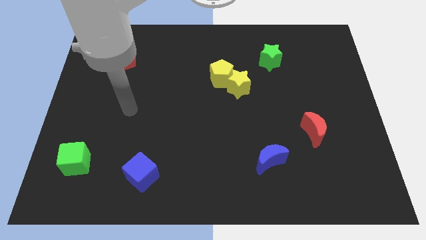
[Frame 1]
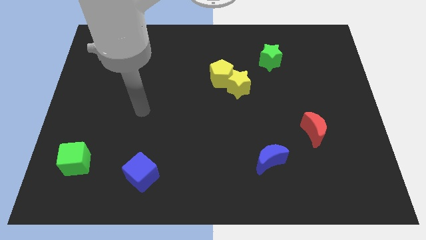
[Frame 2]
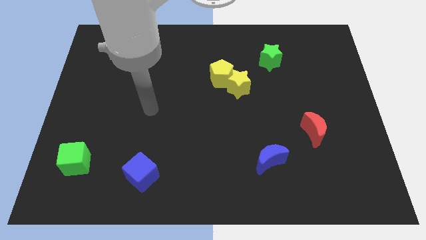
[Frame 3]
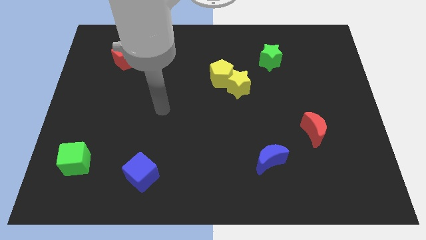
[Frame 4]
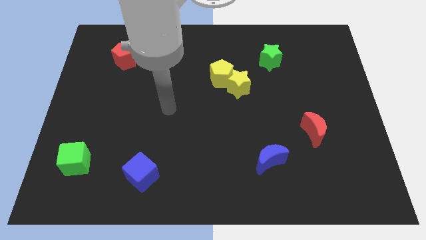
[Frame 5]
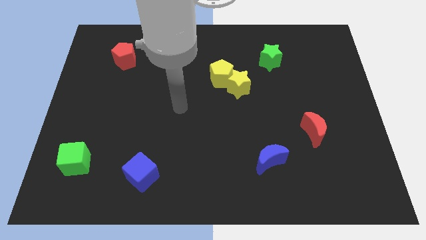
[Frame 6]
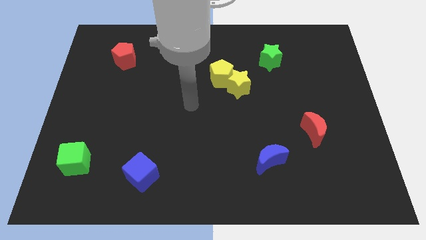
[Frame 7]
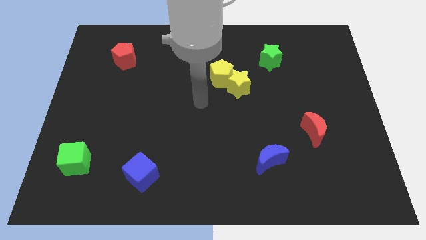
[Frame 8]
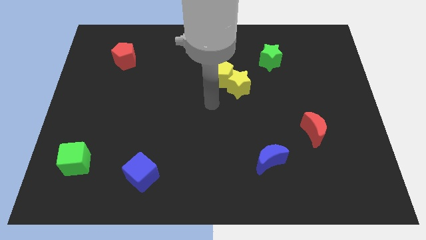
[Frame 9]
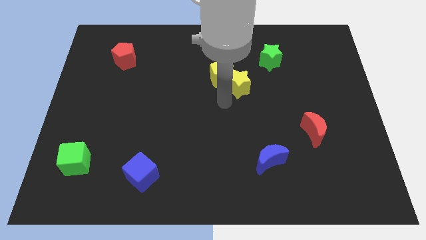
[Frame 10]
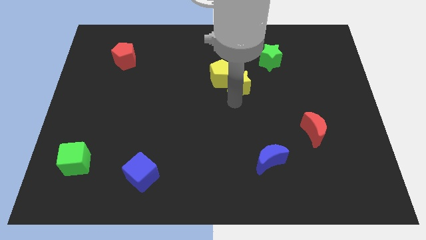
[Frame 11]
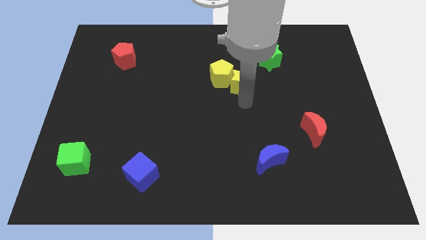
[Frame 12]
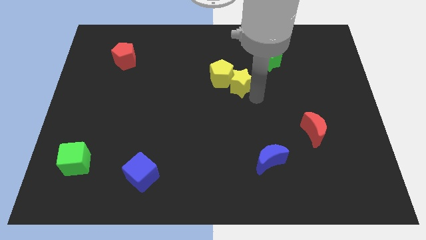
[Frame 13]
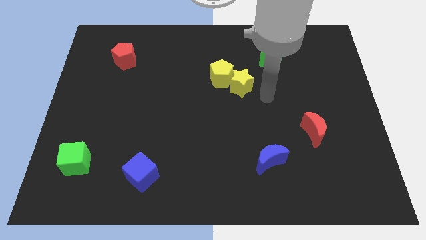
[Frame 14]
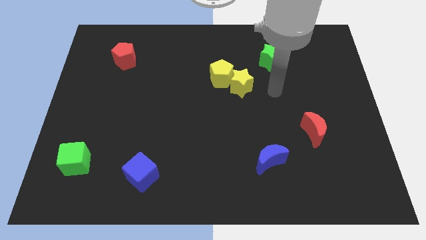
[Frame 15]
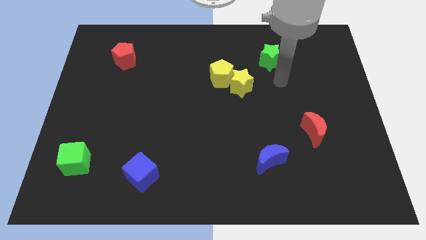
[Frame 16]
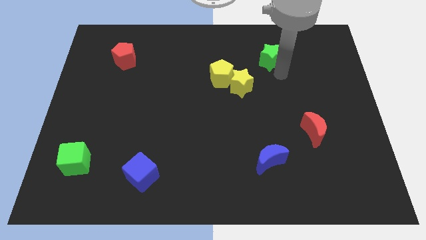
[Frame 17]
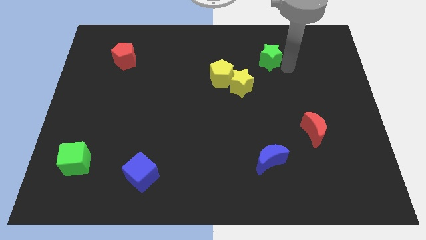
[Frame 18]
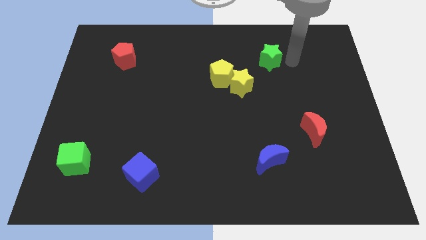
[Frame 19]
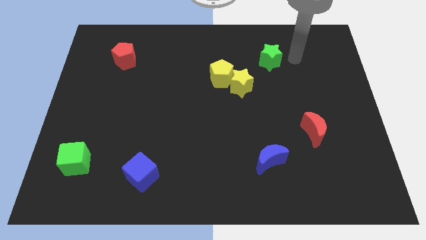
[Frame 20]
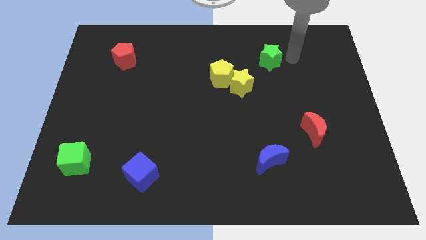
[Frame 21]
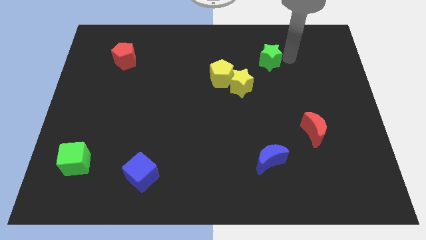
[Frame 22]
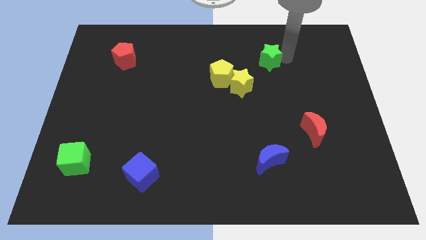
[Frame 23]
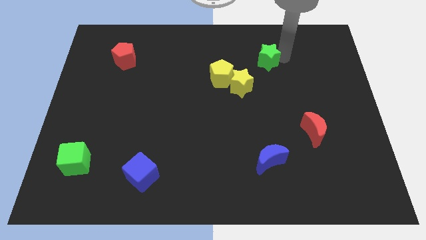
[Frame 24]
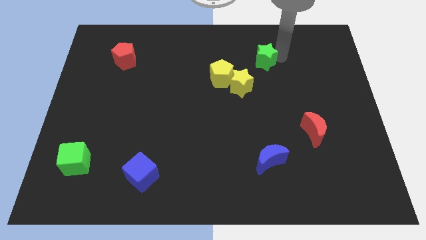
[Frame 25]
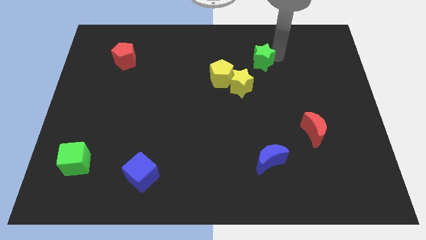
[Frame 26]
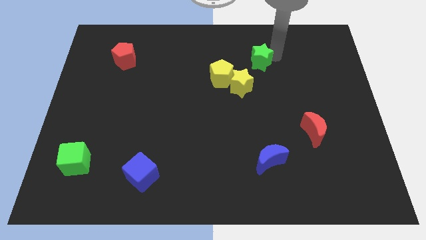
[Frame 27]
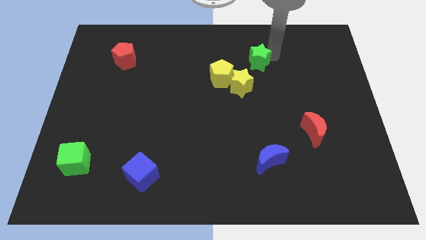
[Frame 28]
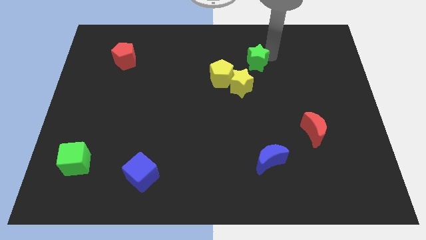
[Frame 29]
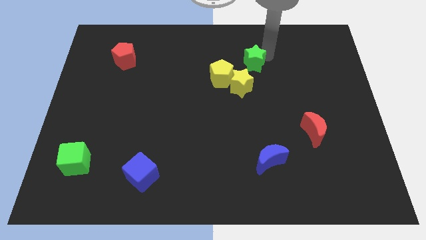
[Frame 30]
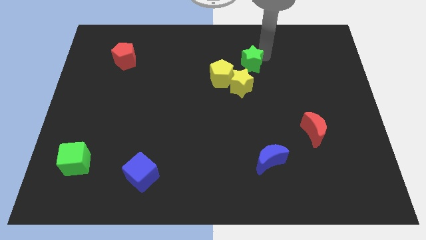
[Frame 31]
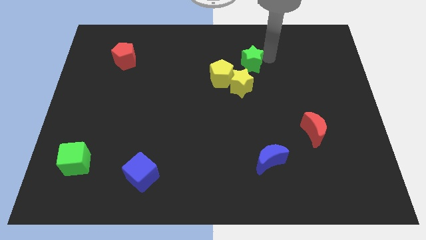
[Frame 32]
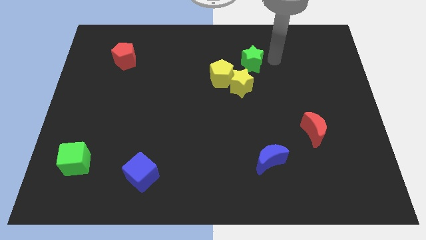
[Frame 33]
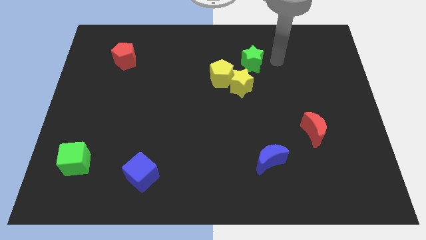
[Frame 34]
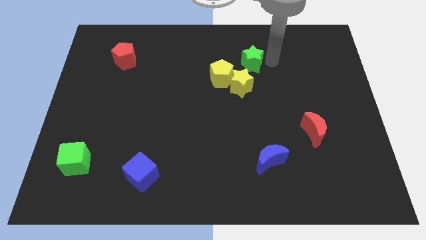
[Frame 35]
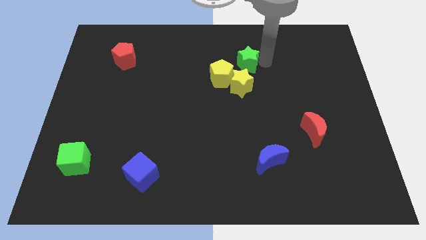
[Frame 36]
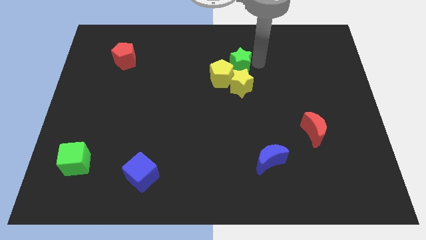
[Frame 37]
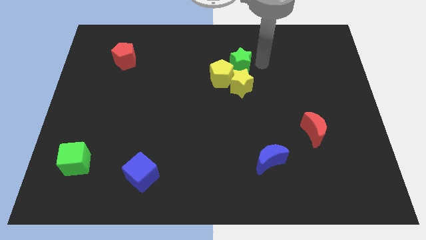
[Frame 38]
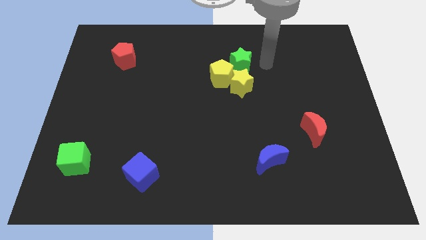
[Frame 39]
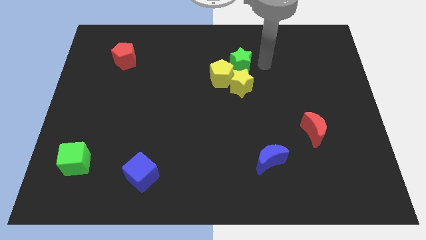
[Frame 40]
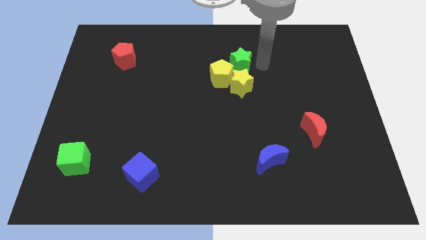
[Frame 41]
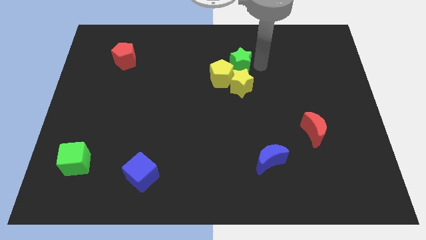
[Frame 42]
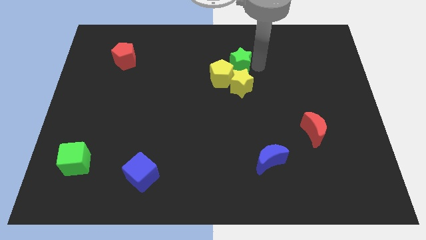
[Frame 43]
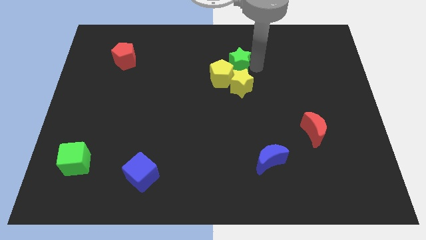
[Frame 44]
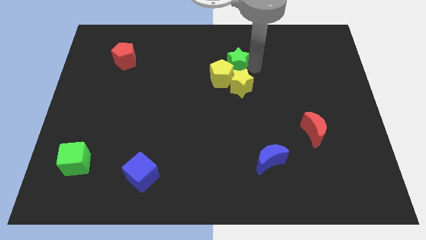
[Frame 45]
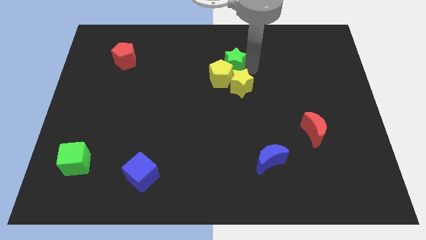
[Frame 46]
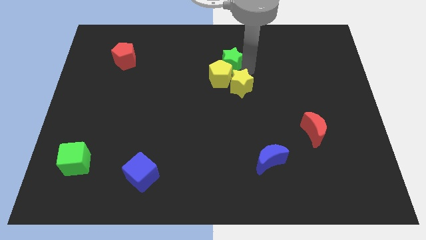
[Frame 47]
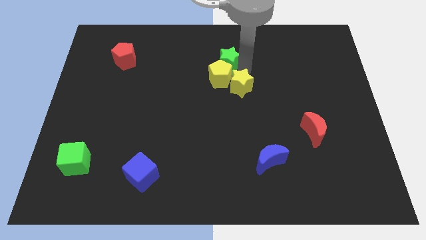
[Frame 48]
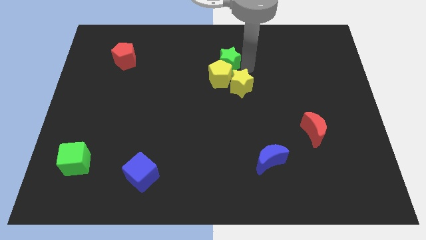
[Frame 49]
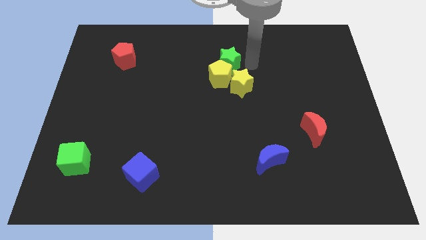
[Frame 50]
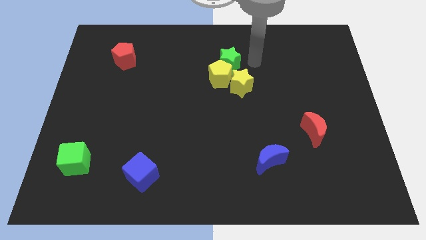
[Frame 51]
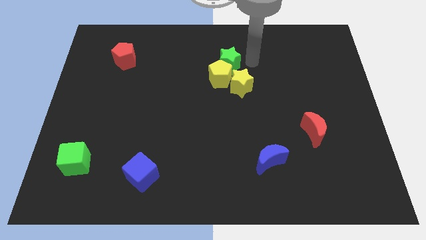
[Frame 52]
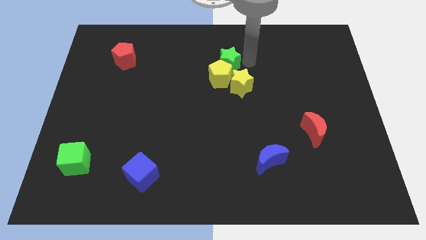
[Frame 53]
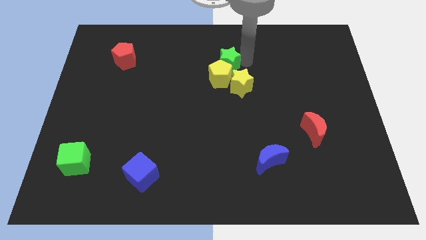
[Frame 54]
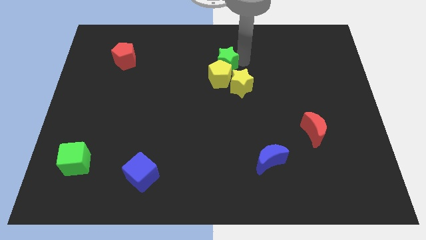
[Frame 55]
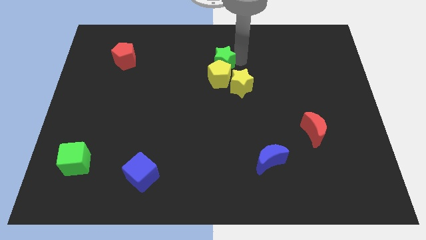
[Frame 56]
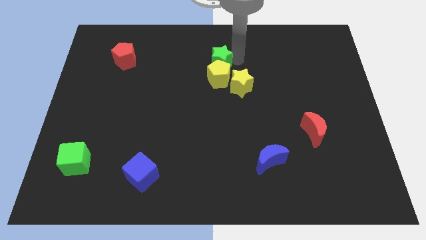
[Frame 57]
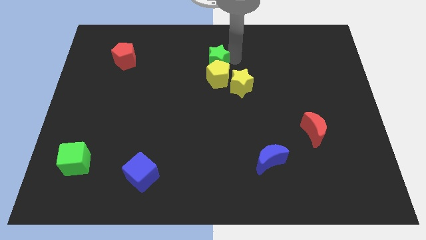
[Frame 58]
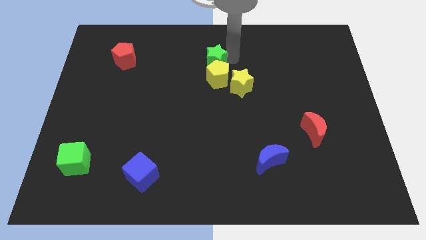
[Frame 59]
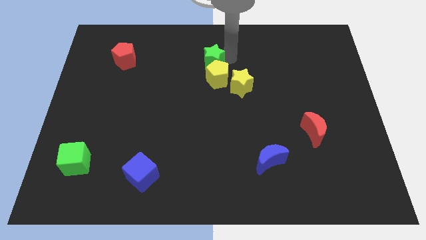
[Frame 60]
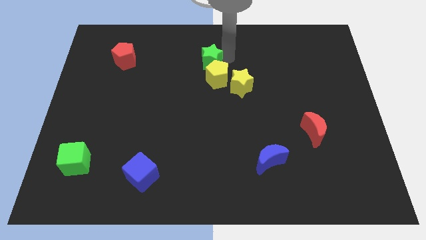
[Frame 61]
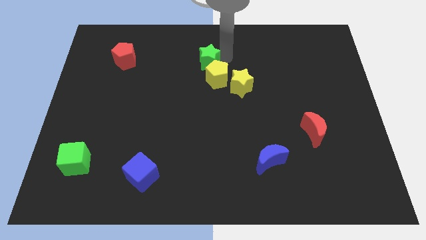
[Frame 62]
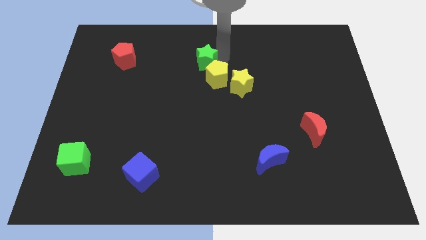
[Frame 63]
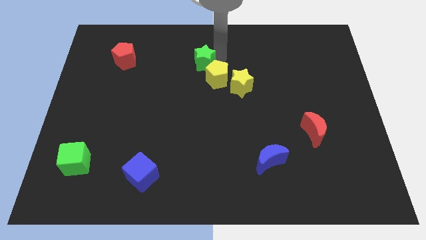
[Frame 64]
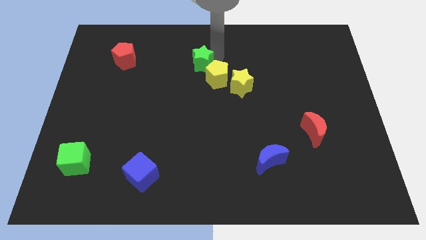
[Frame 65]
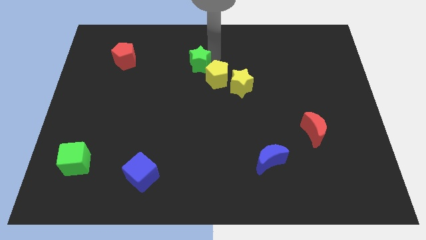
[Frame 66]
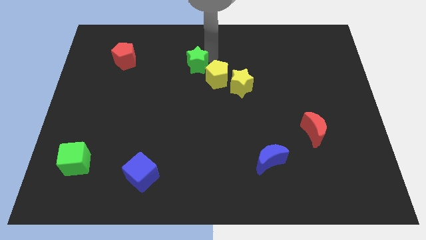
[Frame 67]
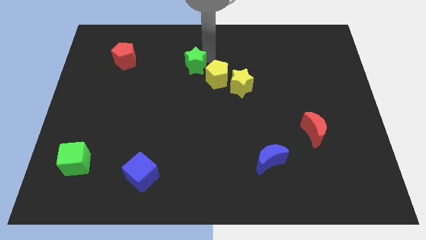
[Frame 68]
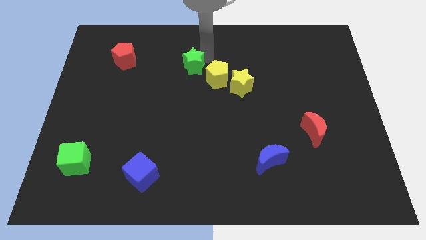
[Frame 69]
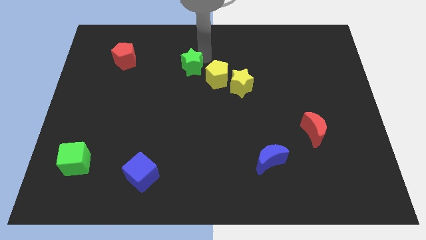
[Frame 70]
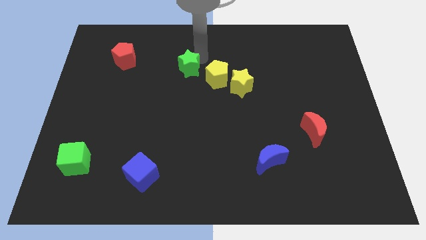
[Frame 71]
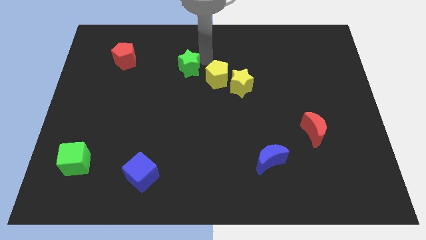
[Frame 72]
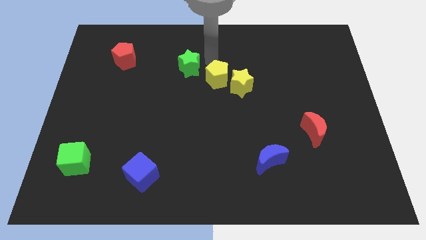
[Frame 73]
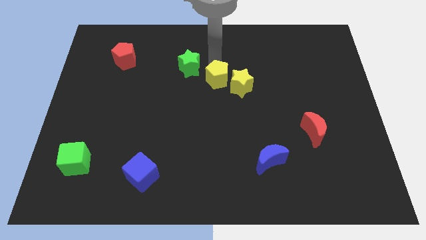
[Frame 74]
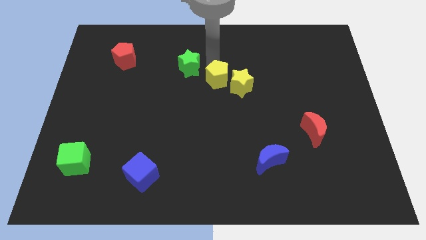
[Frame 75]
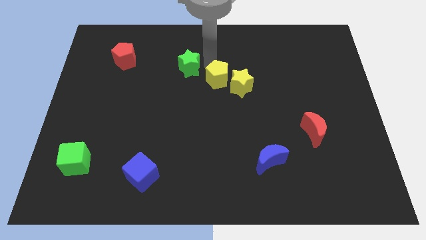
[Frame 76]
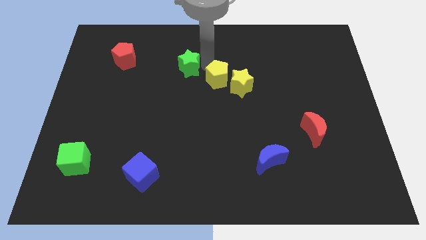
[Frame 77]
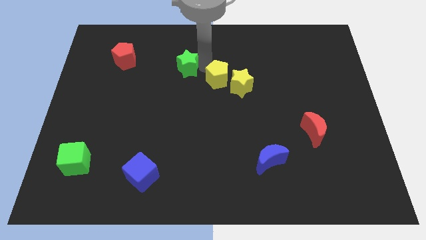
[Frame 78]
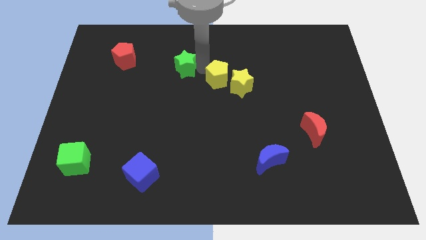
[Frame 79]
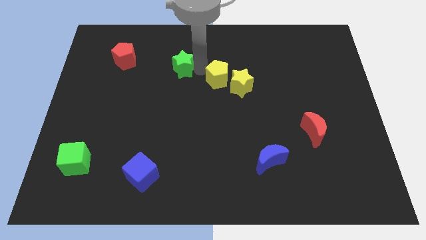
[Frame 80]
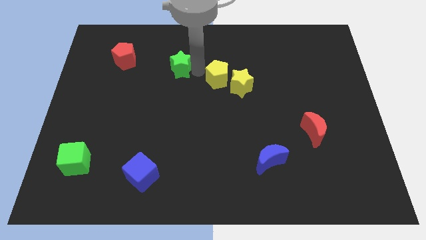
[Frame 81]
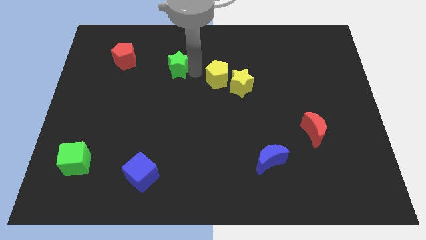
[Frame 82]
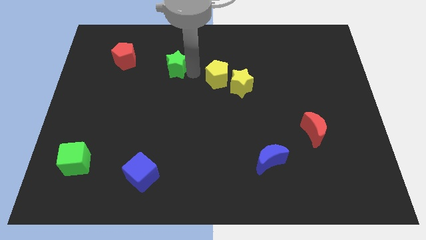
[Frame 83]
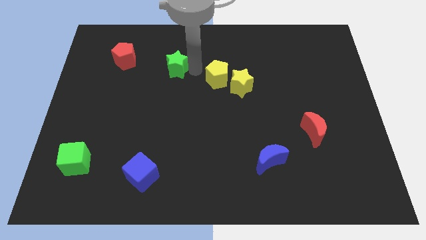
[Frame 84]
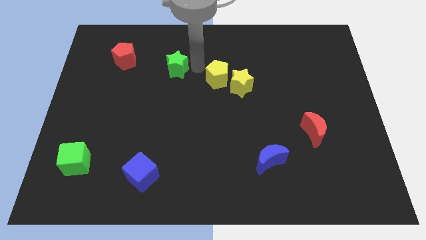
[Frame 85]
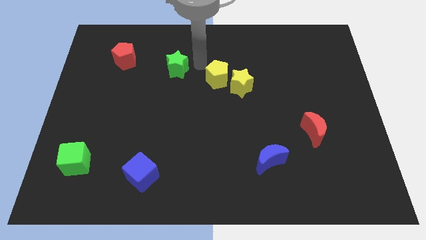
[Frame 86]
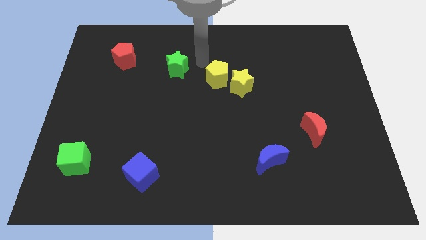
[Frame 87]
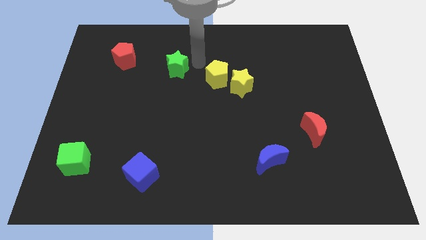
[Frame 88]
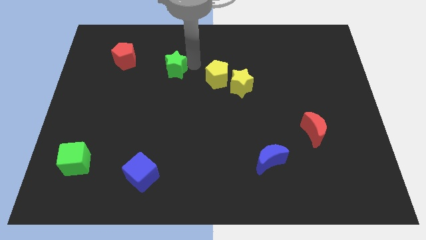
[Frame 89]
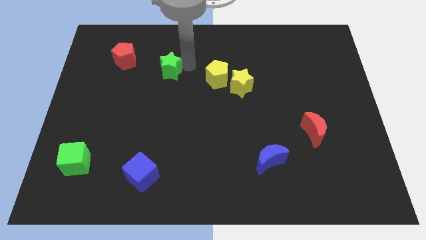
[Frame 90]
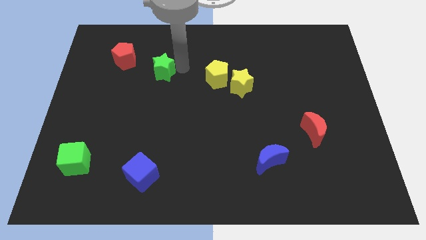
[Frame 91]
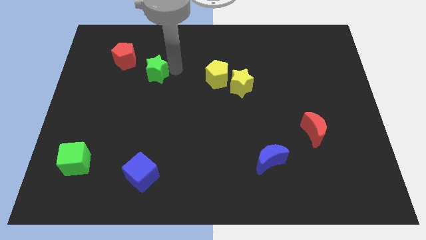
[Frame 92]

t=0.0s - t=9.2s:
push the green star to the bottom right of the red pentagon
